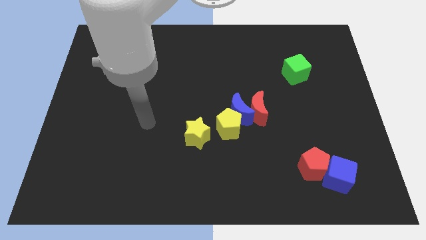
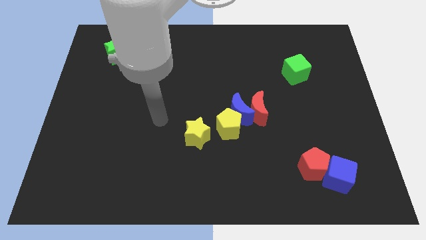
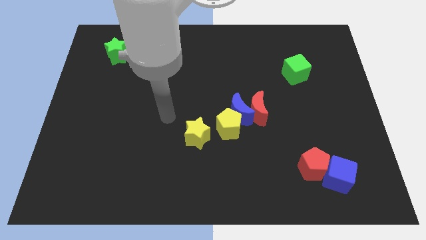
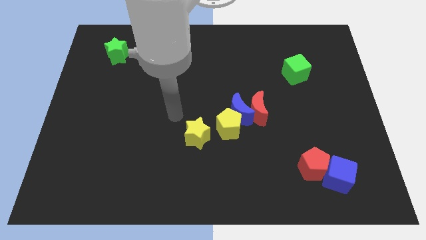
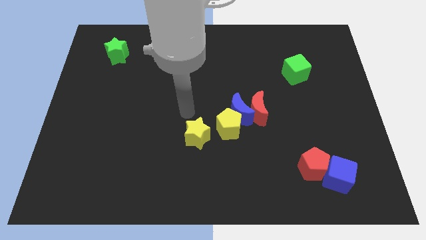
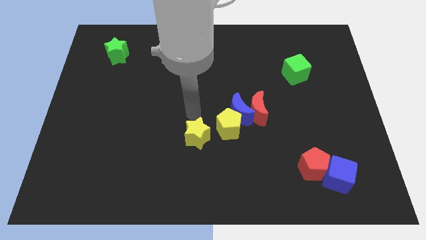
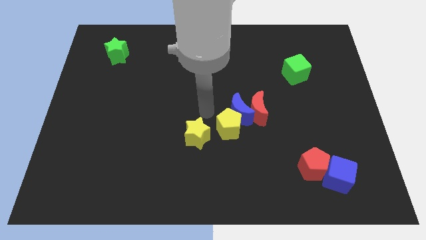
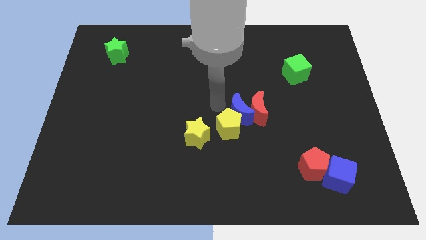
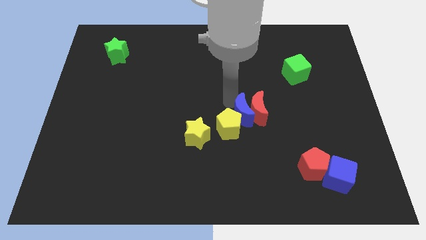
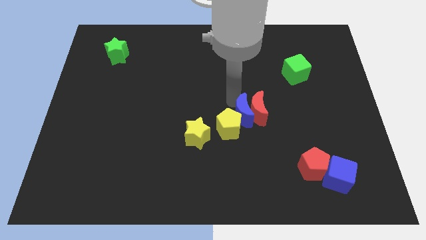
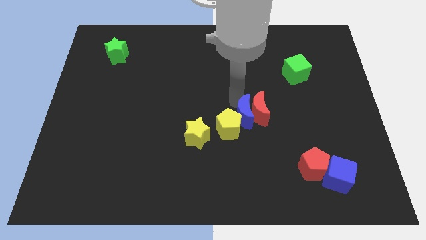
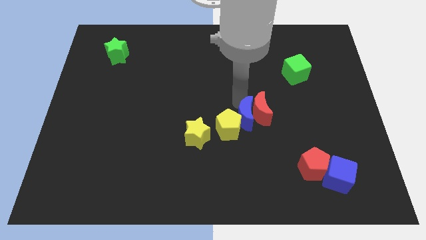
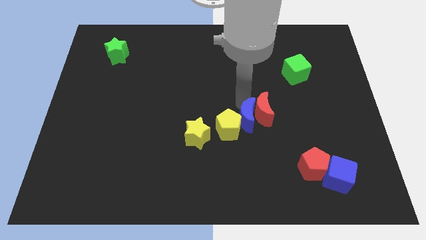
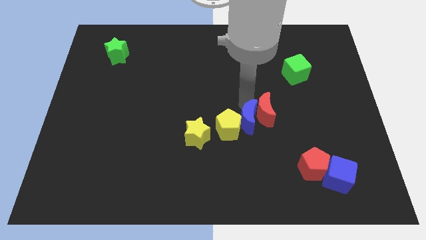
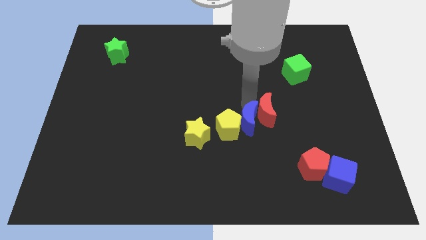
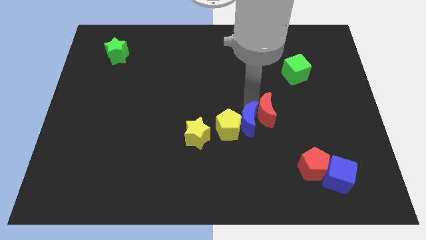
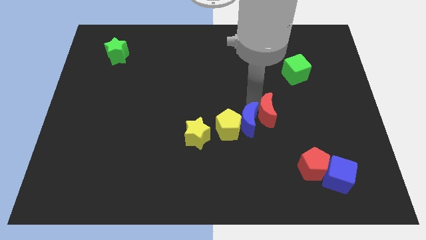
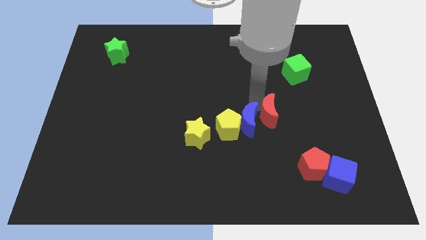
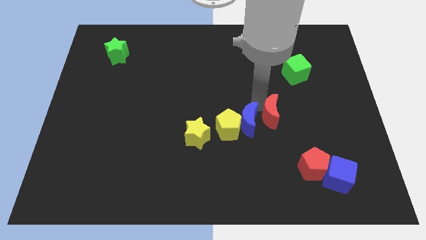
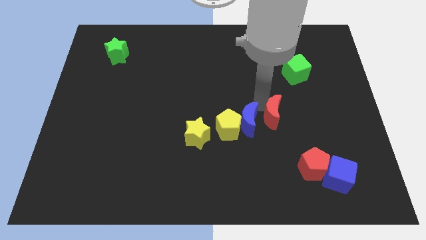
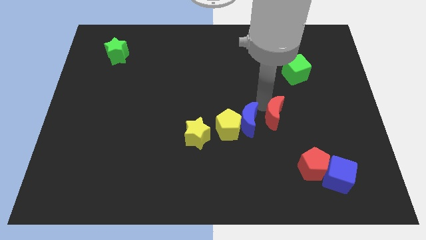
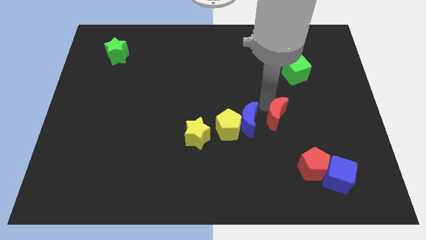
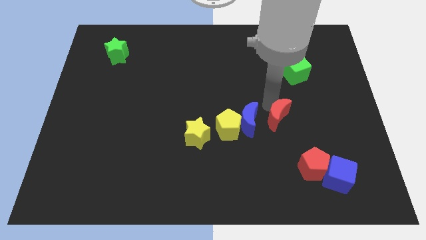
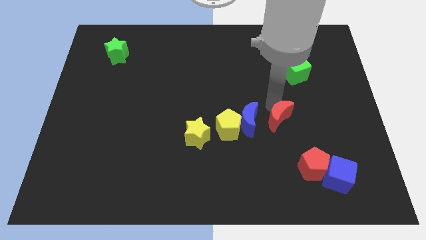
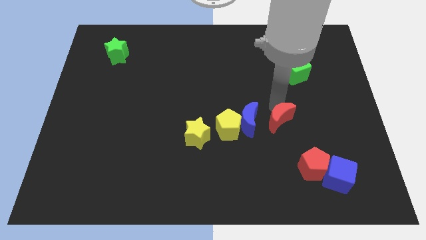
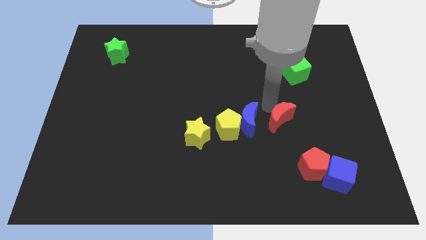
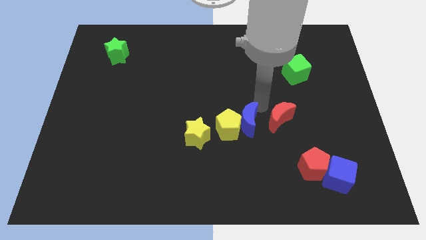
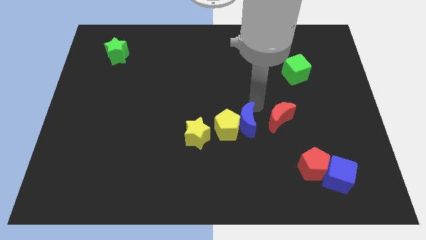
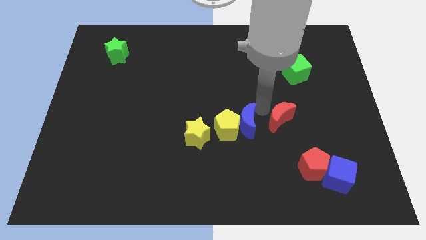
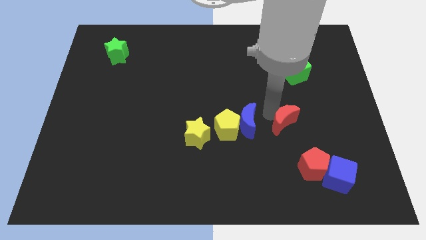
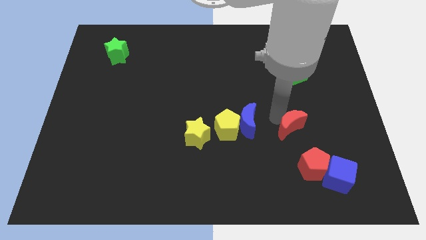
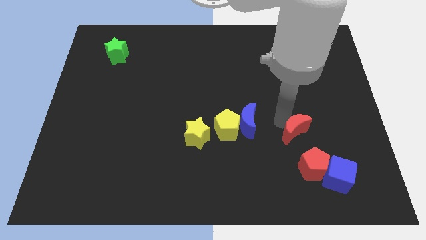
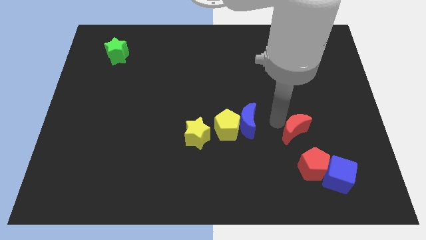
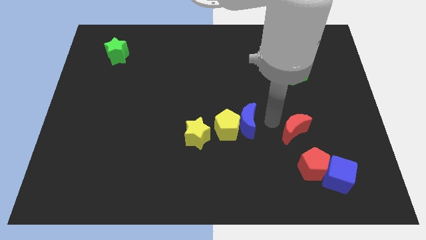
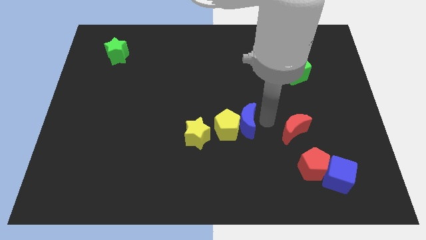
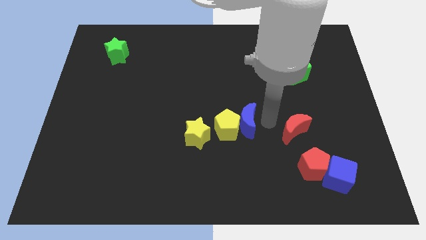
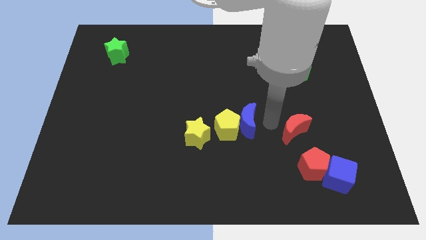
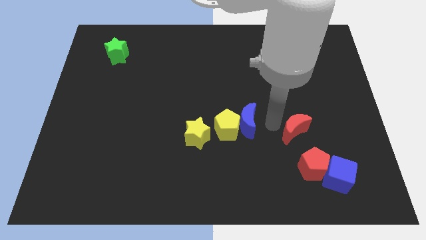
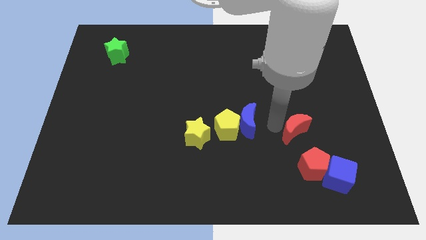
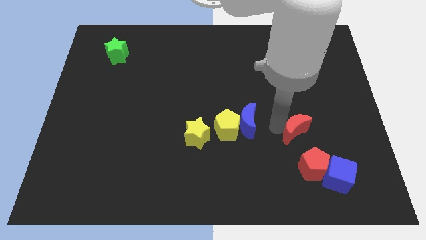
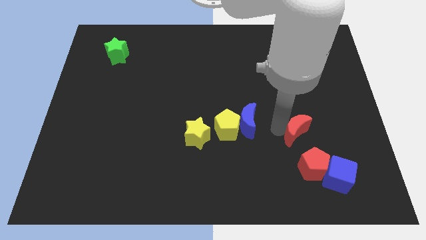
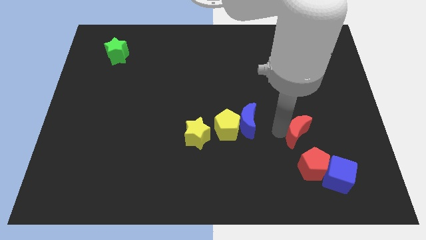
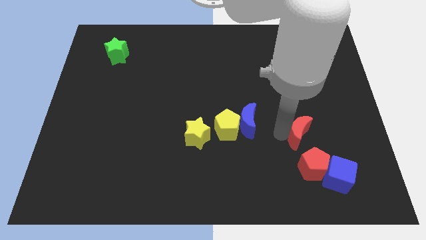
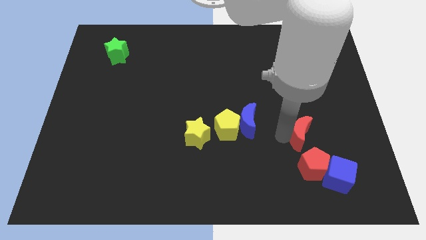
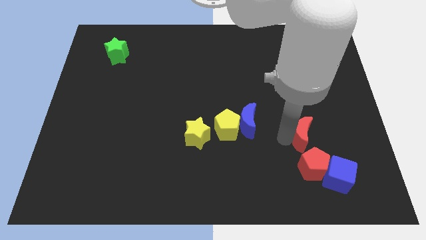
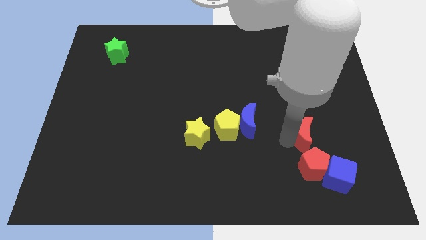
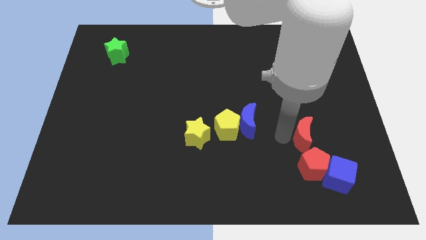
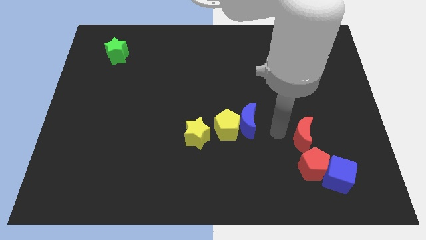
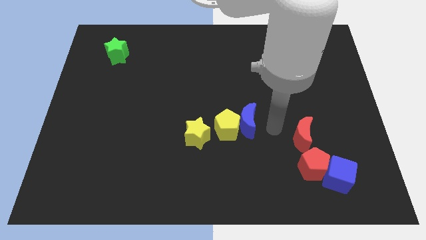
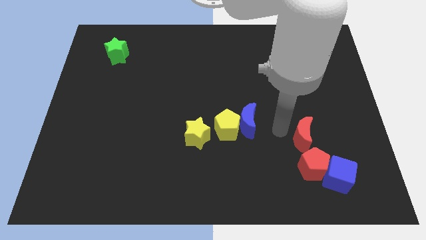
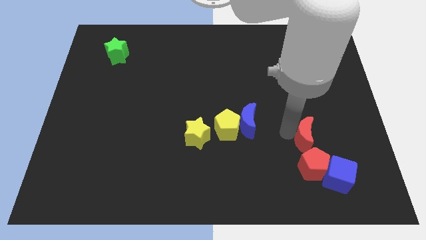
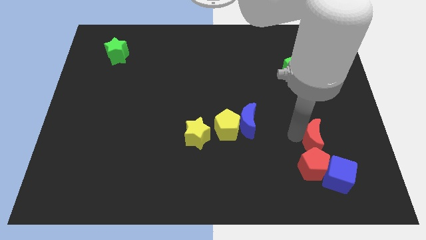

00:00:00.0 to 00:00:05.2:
slide the red moon to the top right side of the red pentagon

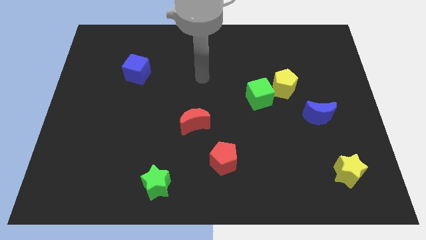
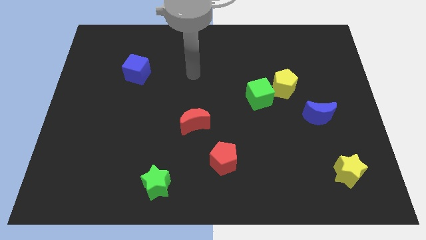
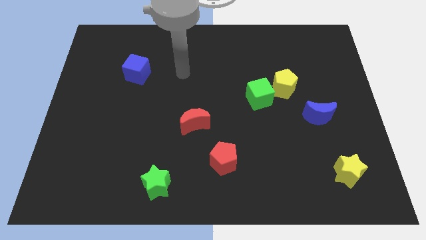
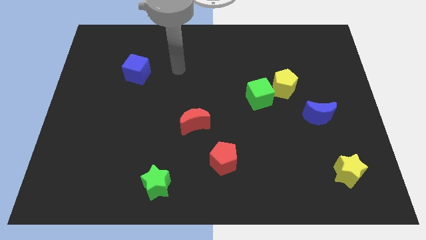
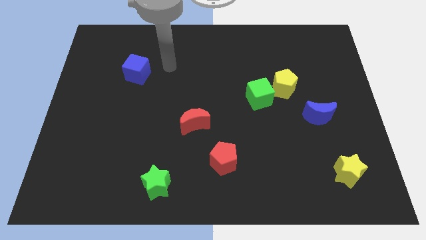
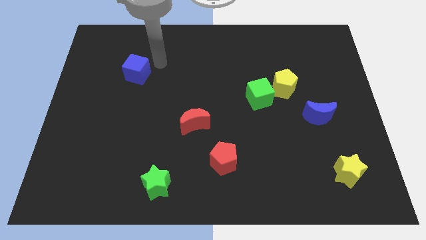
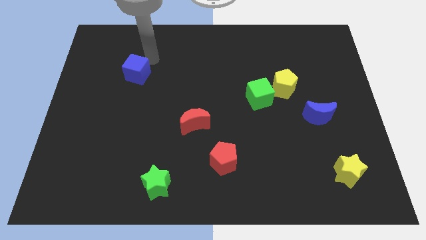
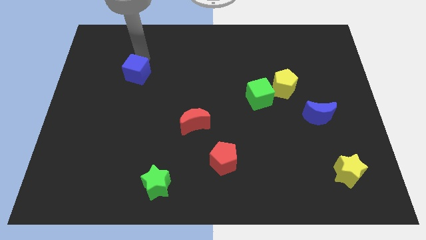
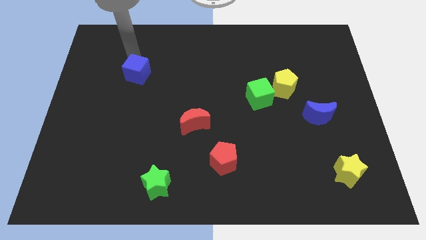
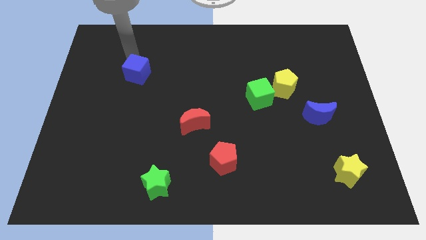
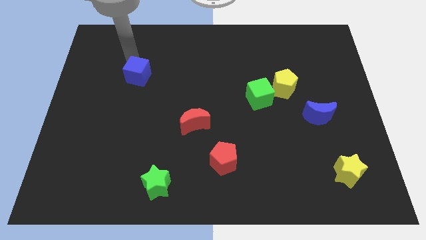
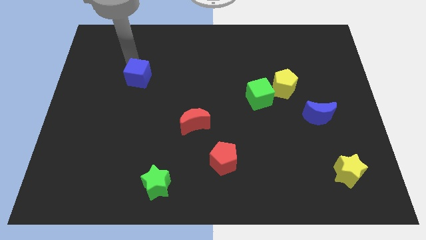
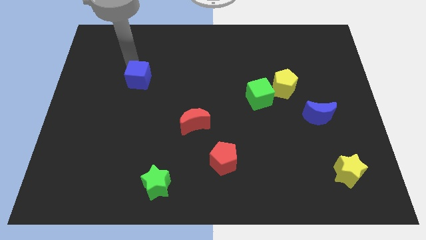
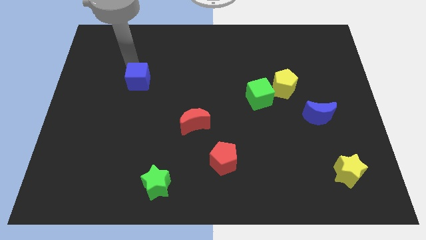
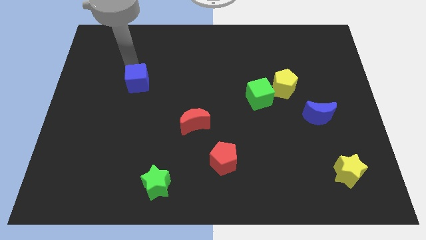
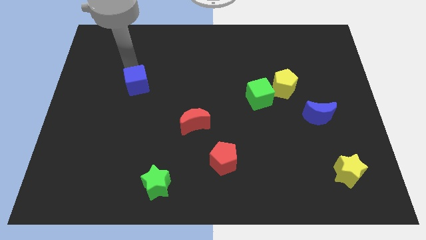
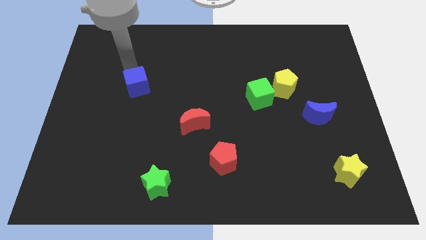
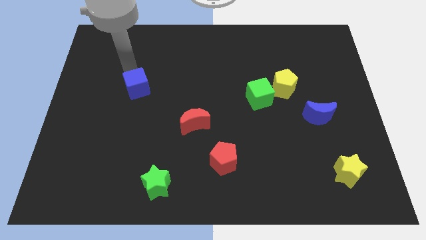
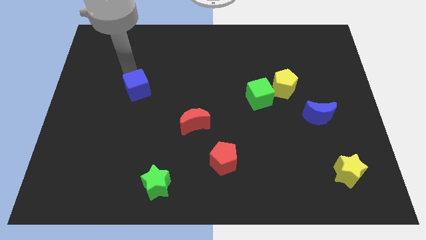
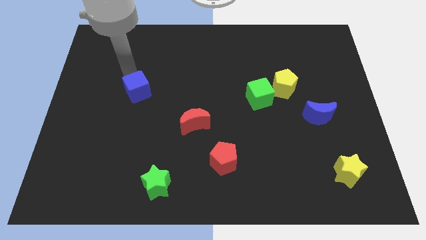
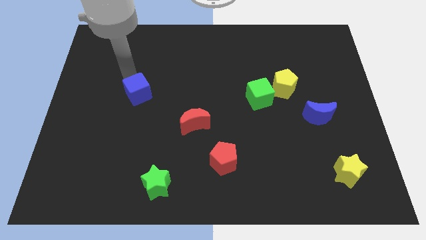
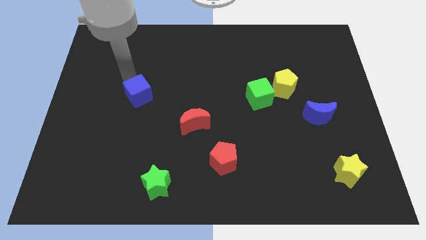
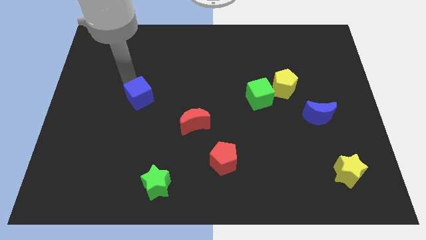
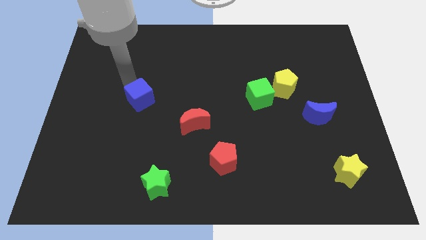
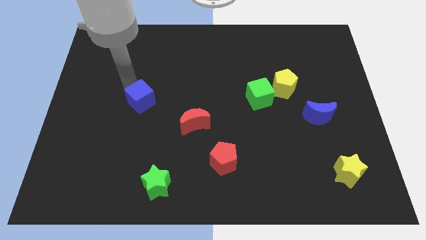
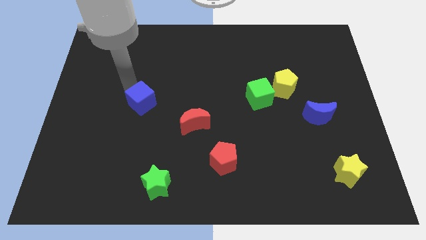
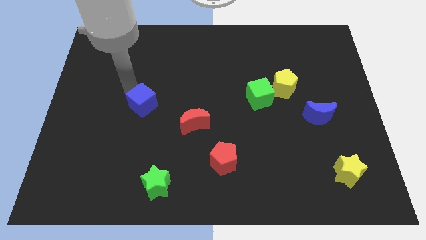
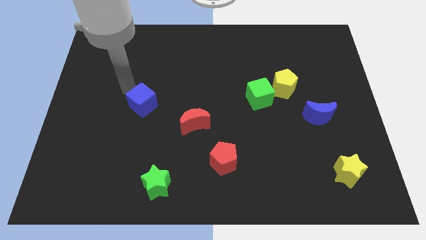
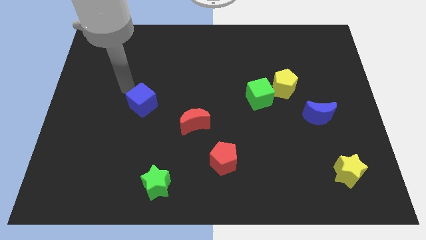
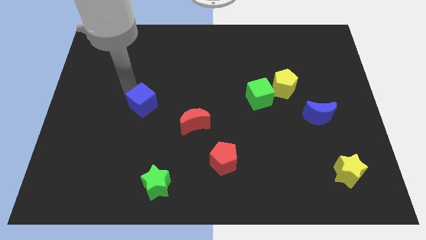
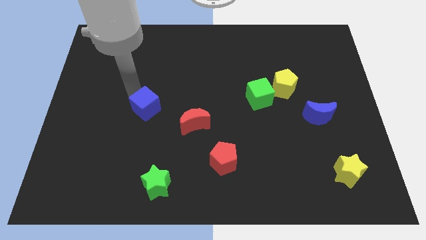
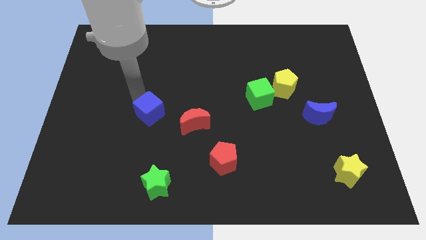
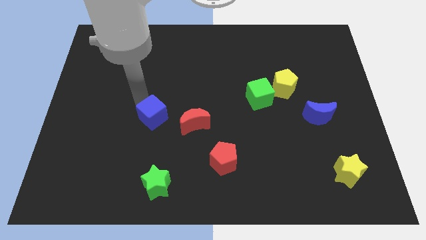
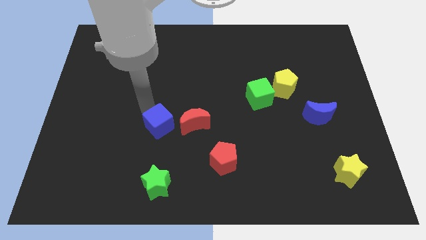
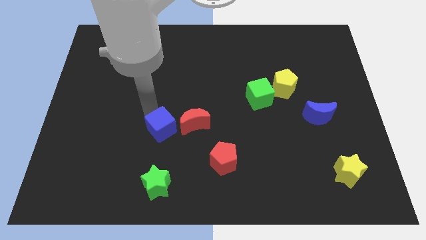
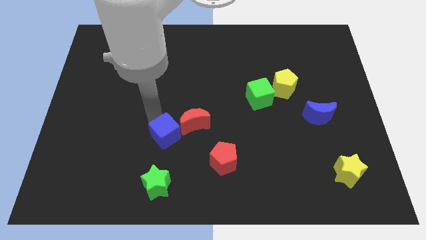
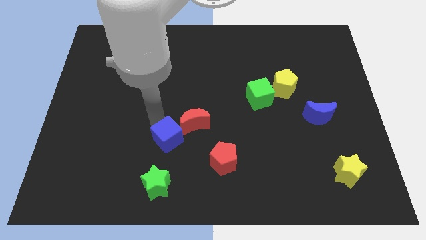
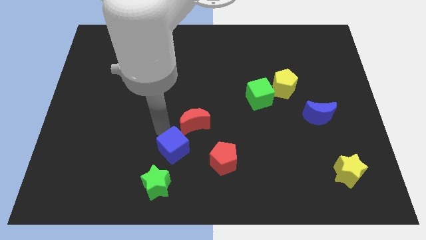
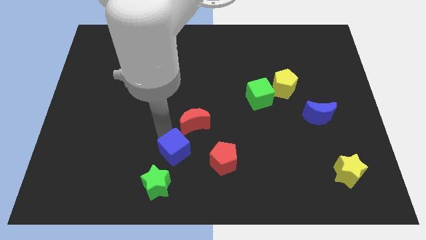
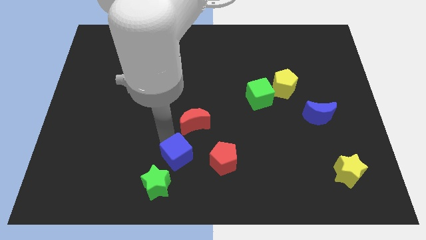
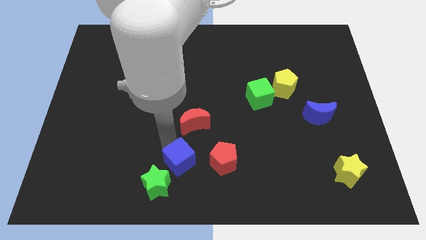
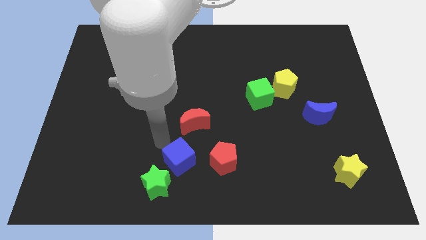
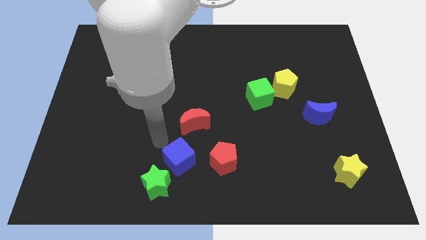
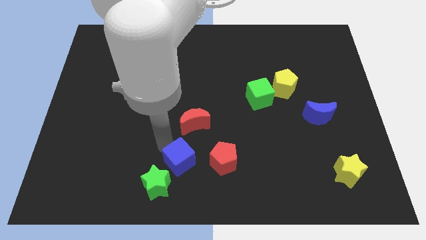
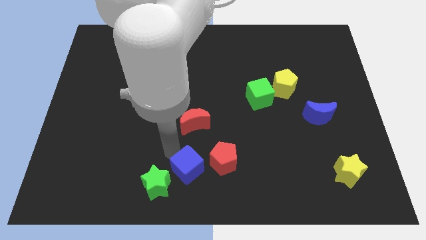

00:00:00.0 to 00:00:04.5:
push the blue cube to the right side of the green star
